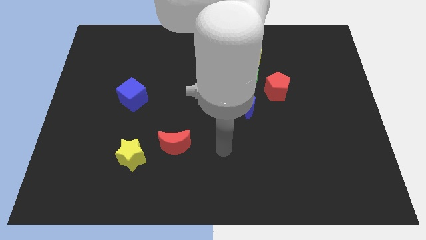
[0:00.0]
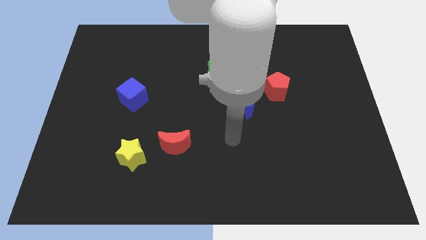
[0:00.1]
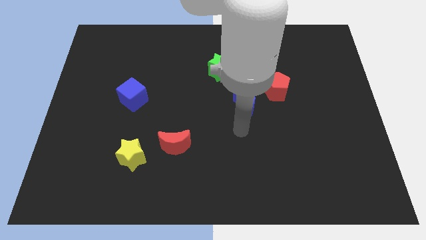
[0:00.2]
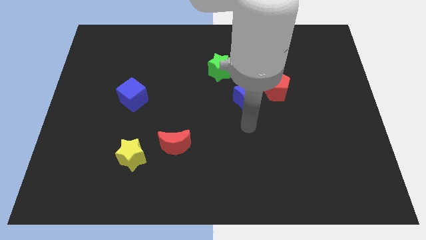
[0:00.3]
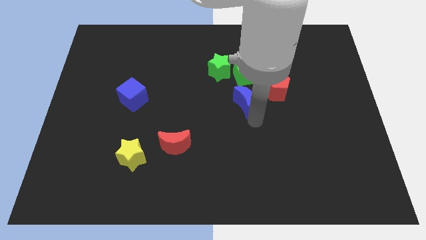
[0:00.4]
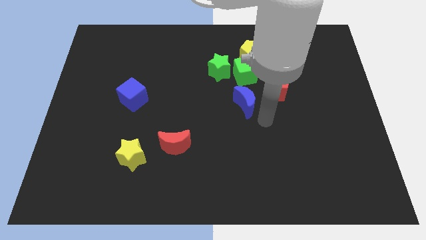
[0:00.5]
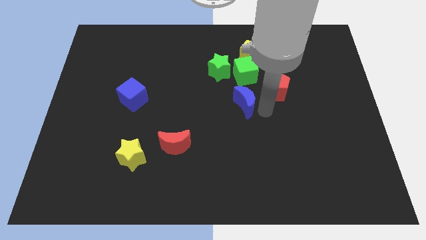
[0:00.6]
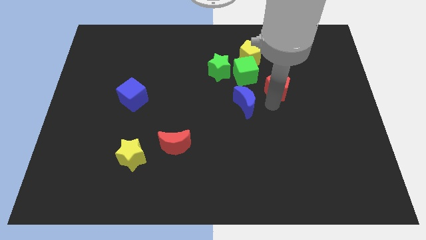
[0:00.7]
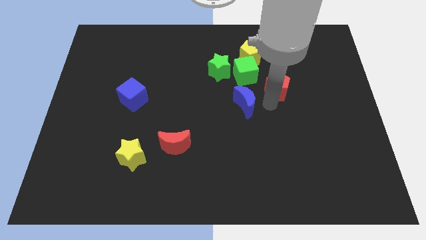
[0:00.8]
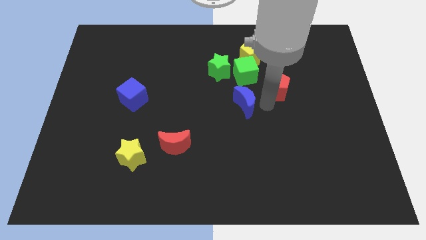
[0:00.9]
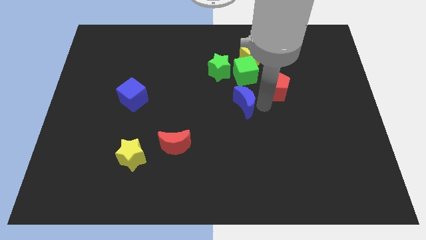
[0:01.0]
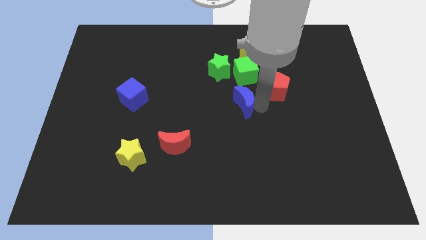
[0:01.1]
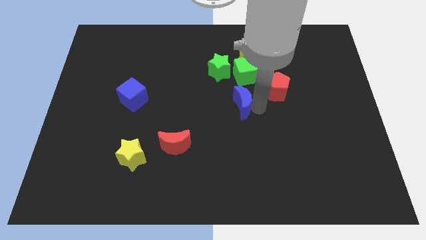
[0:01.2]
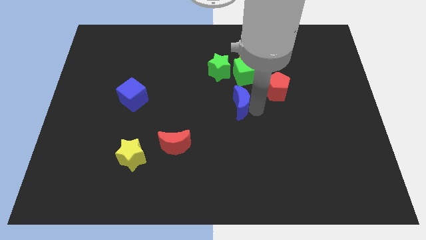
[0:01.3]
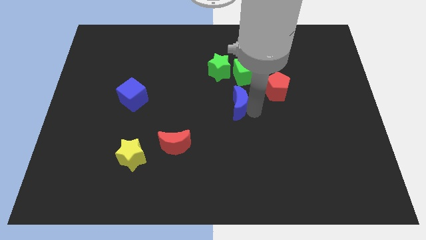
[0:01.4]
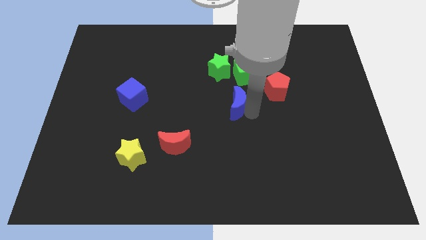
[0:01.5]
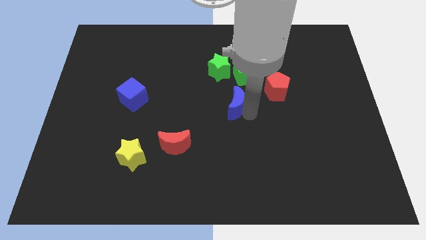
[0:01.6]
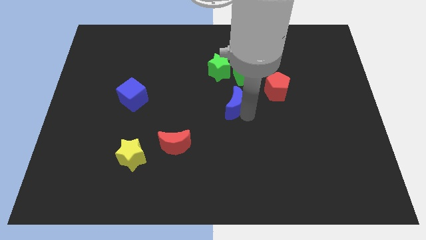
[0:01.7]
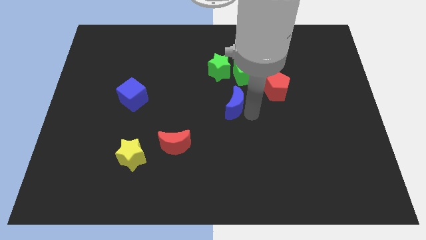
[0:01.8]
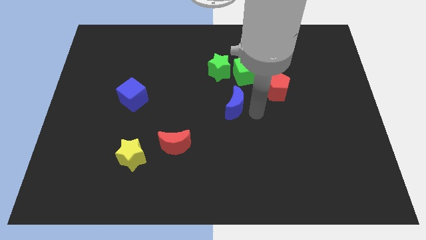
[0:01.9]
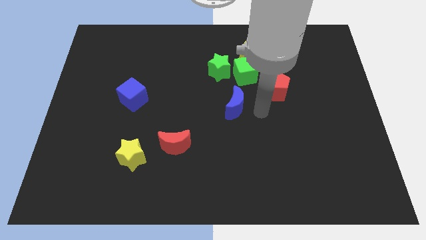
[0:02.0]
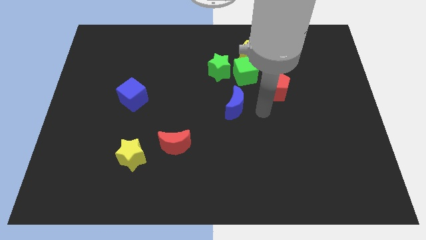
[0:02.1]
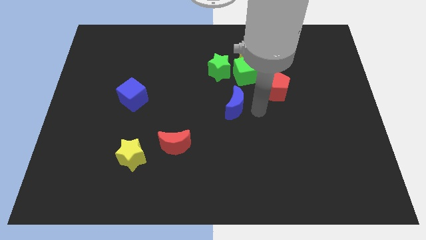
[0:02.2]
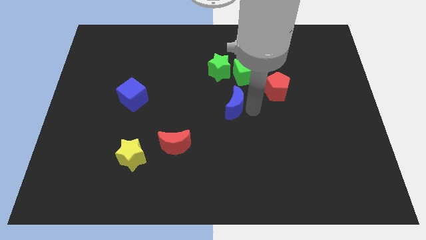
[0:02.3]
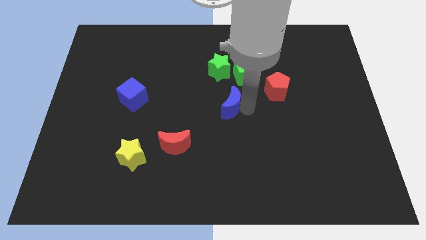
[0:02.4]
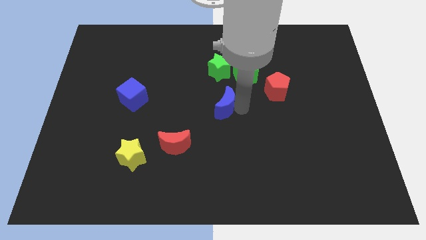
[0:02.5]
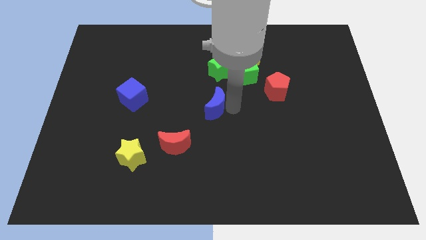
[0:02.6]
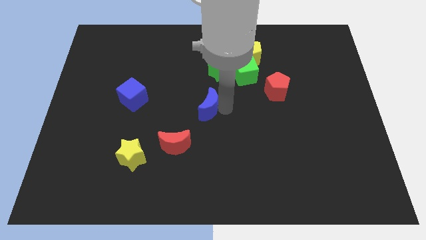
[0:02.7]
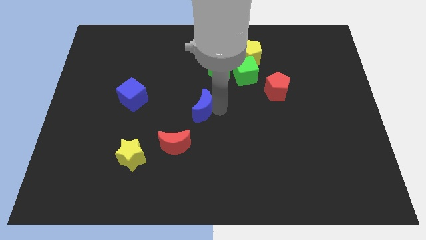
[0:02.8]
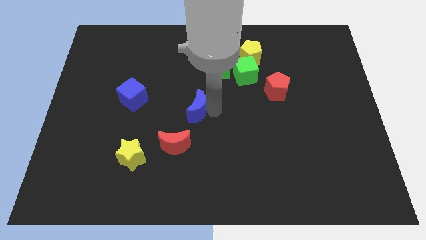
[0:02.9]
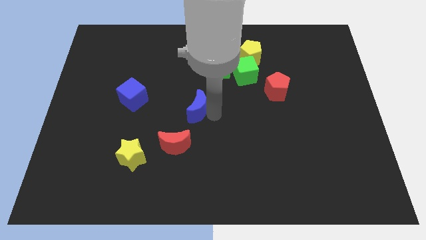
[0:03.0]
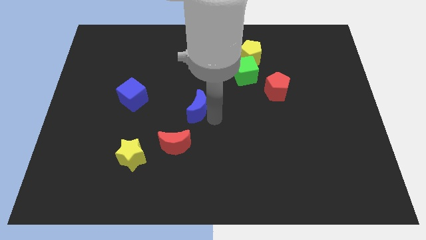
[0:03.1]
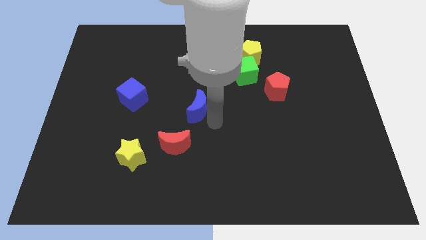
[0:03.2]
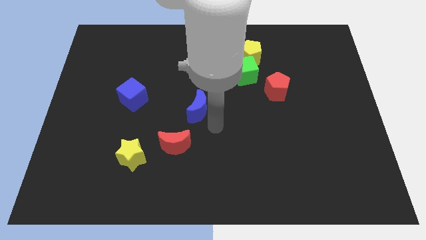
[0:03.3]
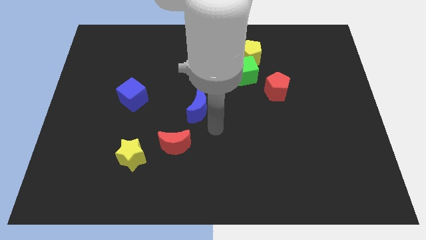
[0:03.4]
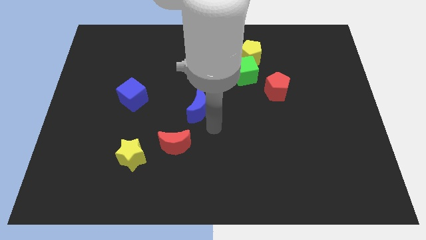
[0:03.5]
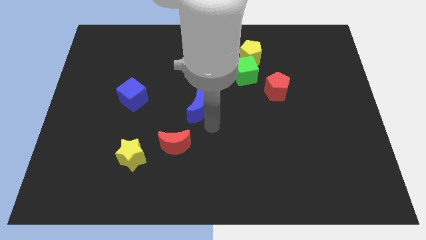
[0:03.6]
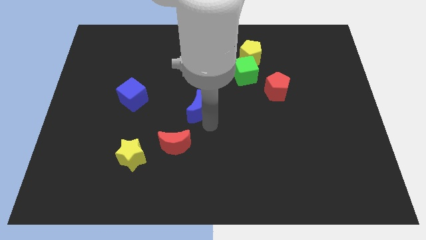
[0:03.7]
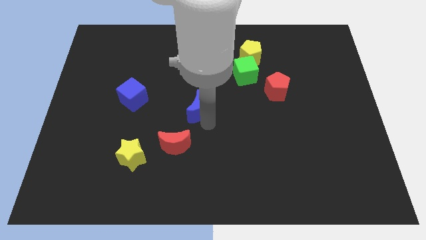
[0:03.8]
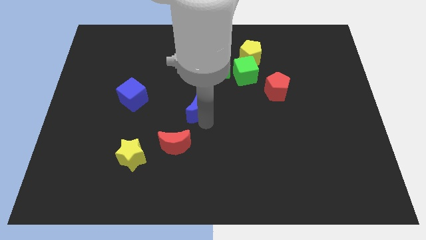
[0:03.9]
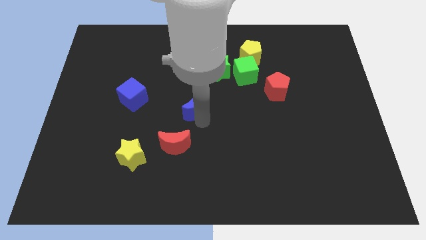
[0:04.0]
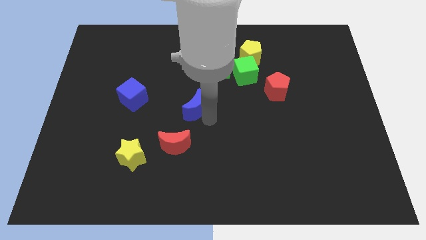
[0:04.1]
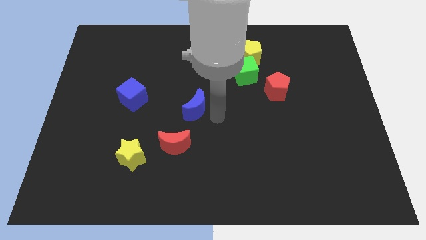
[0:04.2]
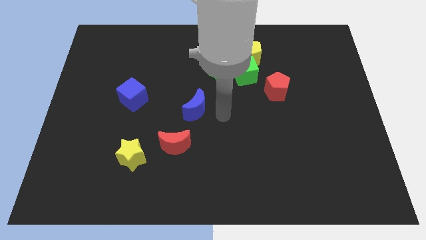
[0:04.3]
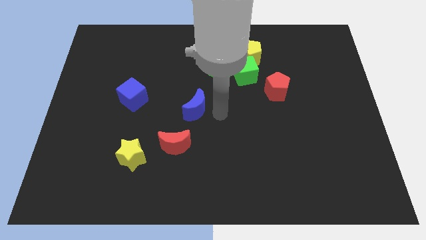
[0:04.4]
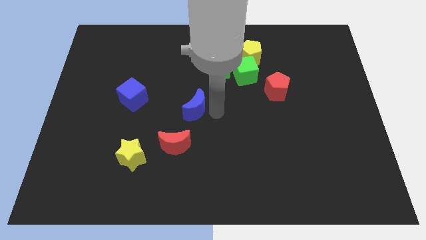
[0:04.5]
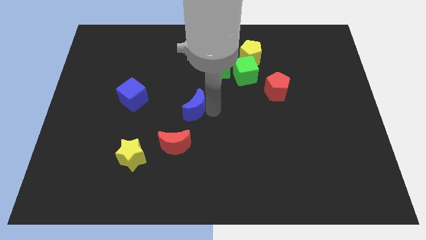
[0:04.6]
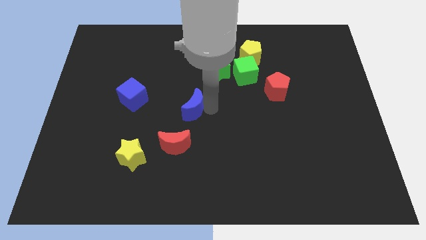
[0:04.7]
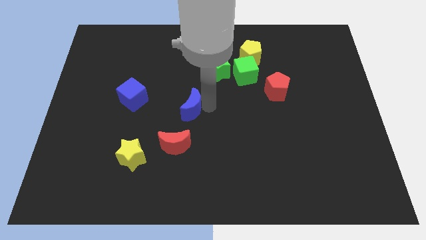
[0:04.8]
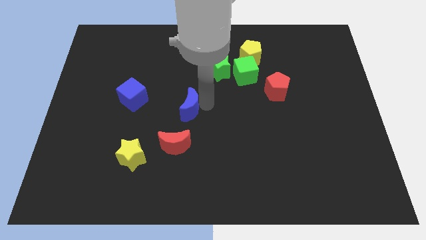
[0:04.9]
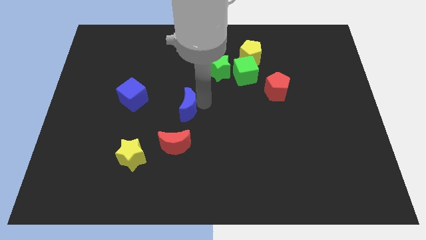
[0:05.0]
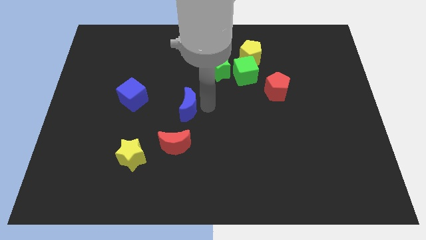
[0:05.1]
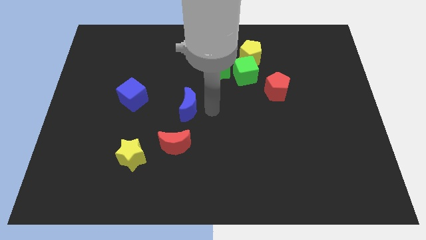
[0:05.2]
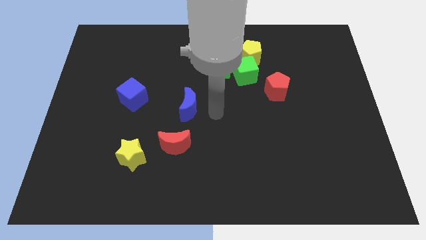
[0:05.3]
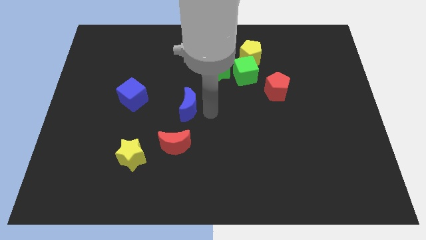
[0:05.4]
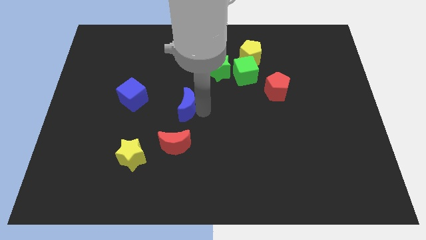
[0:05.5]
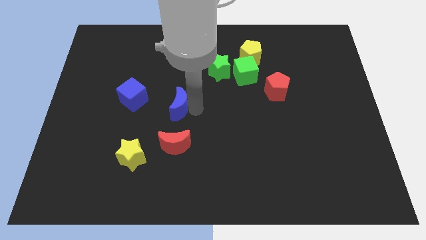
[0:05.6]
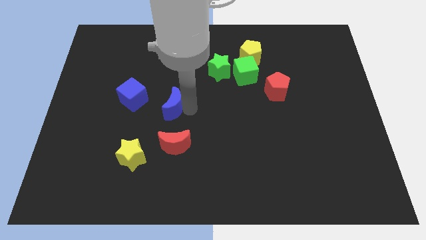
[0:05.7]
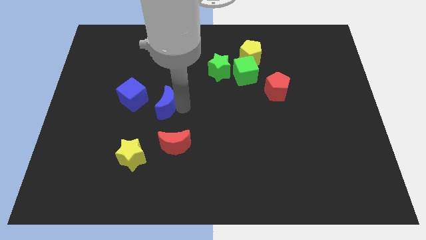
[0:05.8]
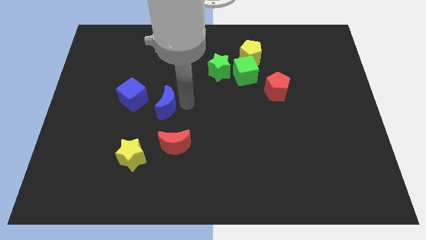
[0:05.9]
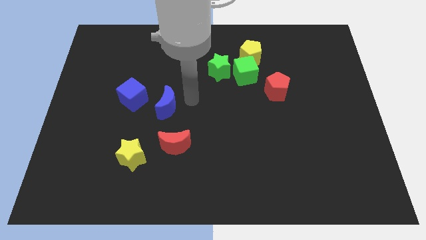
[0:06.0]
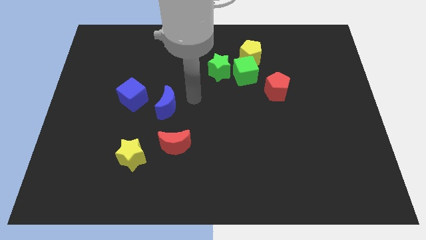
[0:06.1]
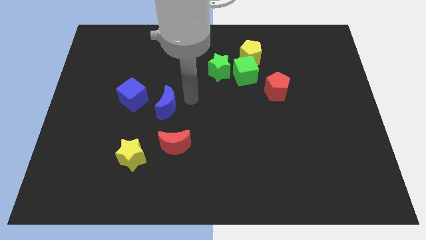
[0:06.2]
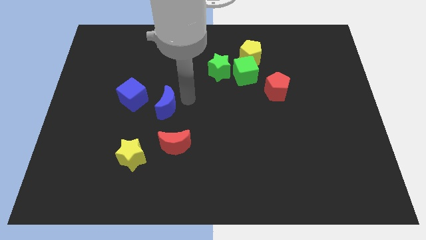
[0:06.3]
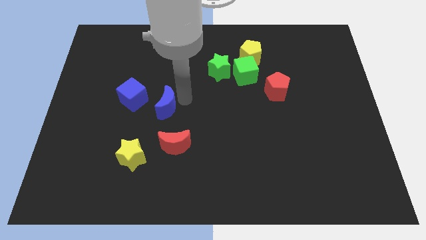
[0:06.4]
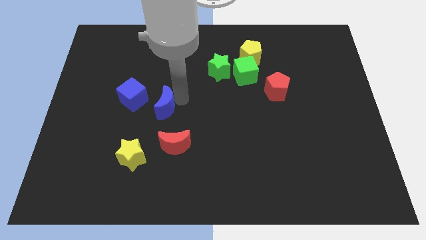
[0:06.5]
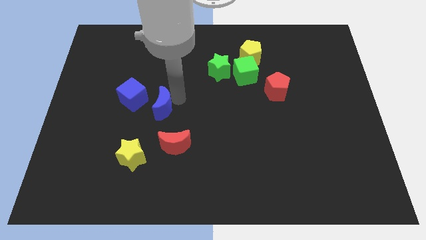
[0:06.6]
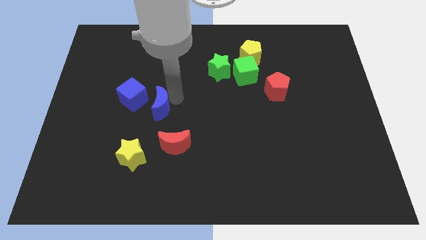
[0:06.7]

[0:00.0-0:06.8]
push the blue moon to the left

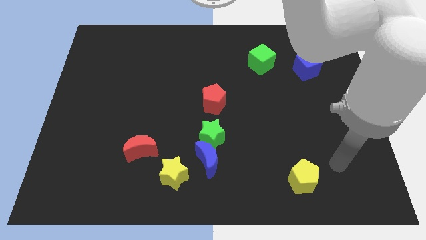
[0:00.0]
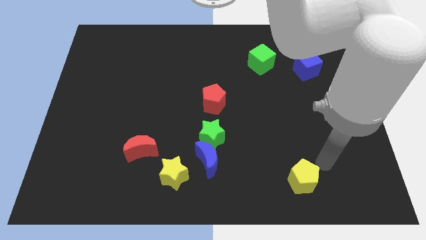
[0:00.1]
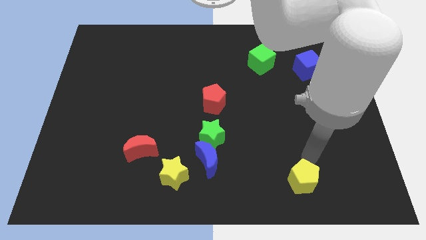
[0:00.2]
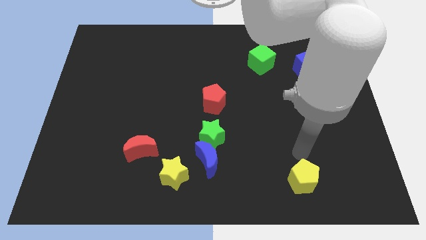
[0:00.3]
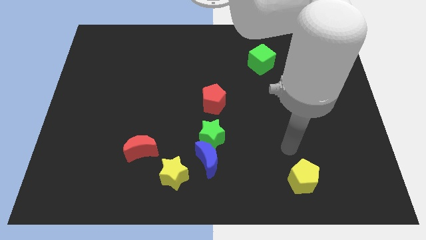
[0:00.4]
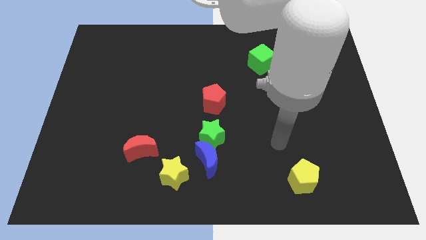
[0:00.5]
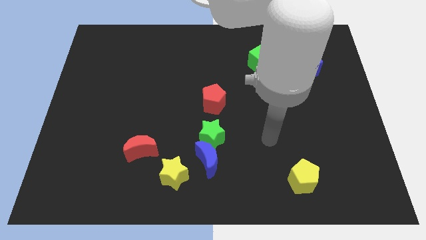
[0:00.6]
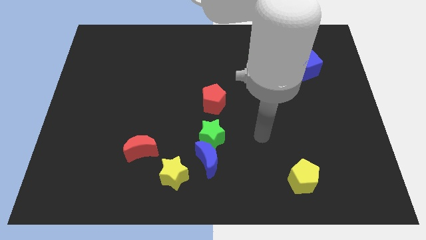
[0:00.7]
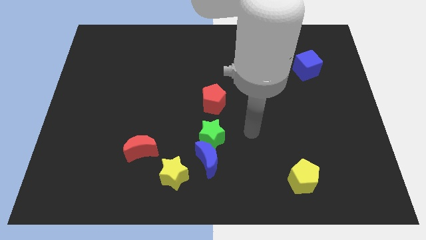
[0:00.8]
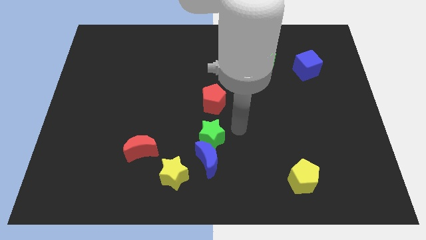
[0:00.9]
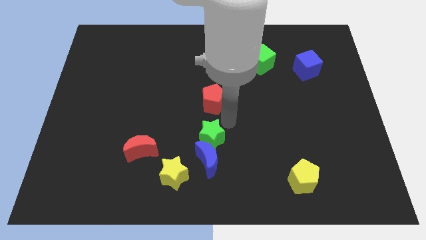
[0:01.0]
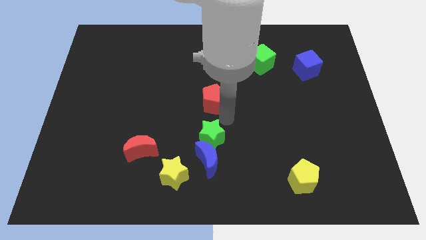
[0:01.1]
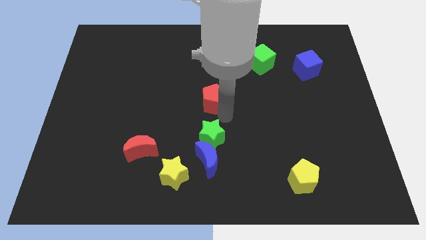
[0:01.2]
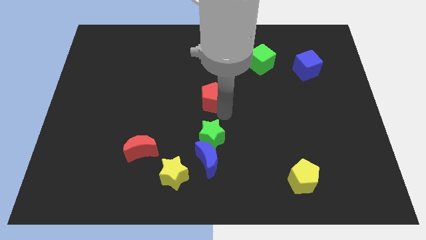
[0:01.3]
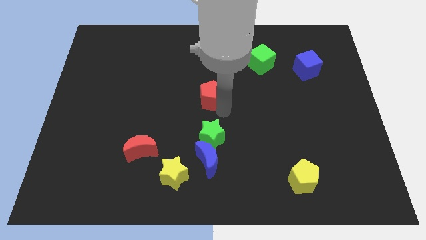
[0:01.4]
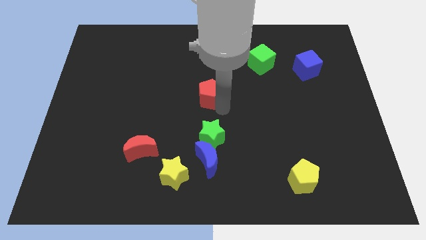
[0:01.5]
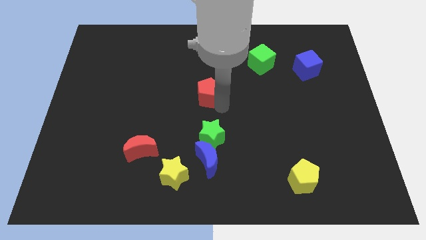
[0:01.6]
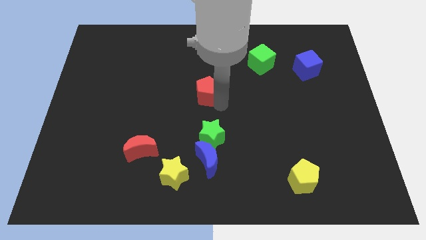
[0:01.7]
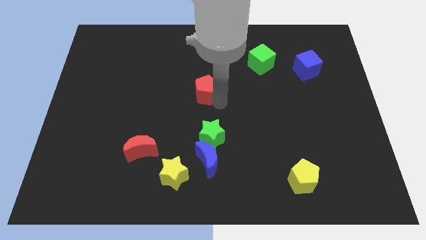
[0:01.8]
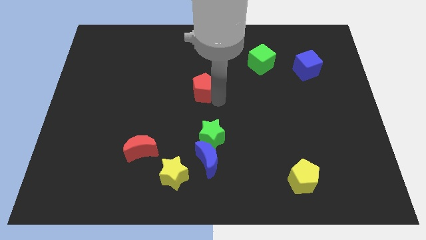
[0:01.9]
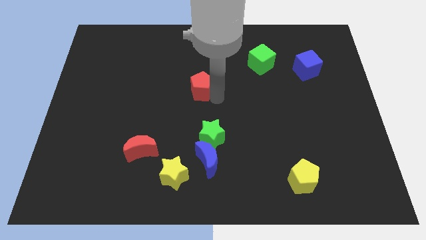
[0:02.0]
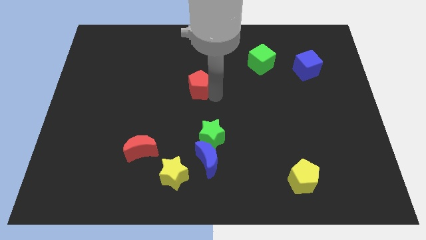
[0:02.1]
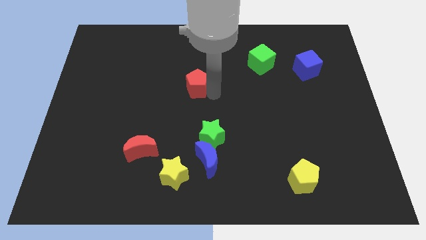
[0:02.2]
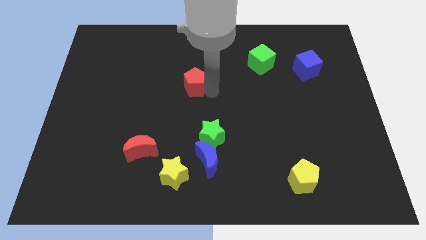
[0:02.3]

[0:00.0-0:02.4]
push the red pentagon a little bit upwards and to the left diagonally
